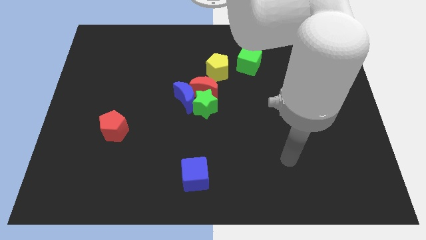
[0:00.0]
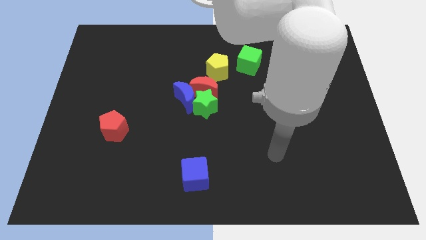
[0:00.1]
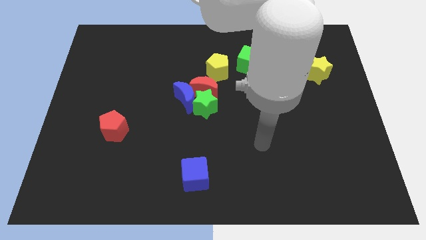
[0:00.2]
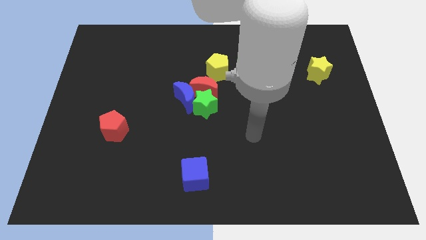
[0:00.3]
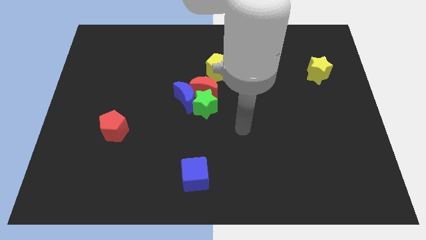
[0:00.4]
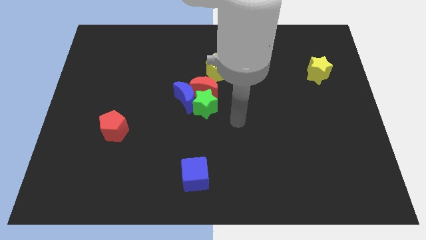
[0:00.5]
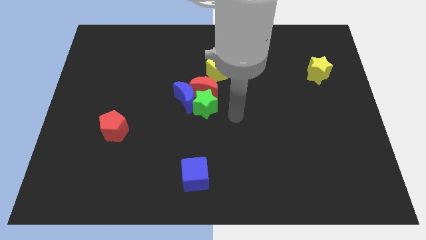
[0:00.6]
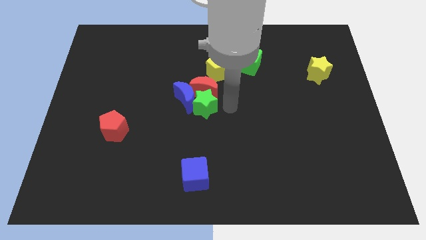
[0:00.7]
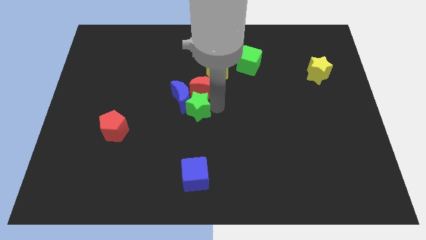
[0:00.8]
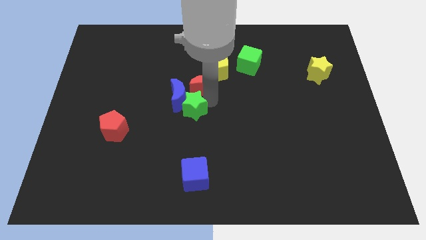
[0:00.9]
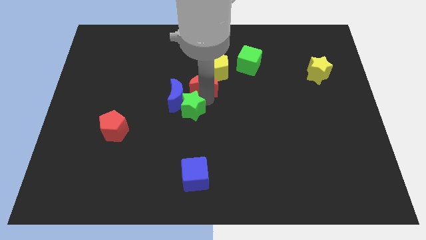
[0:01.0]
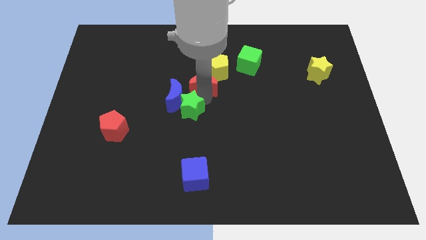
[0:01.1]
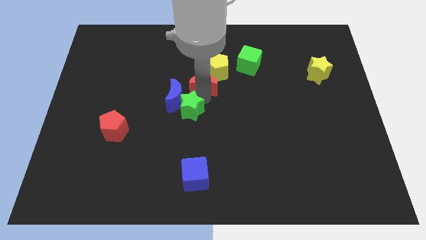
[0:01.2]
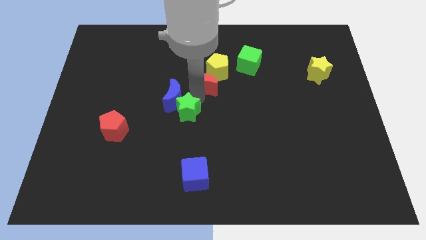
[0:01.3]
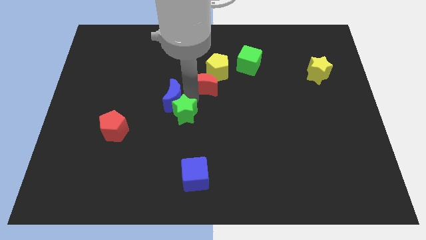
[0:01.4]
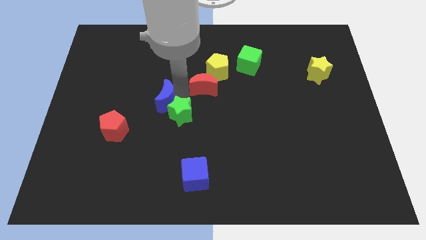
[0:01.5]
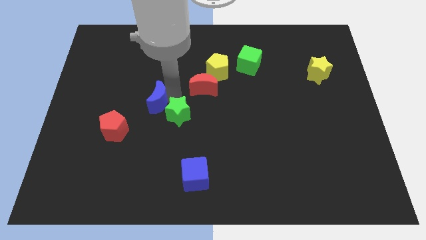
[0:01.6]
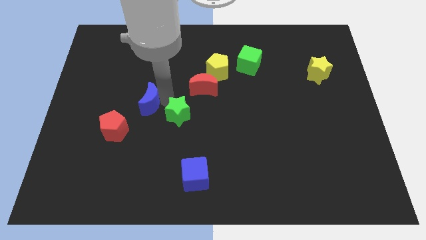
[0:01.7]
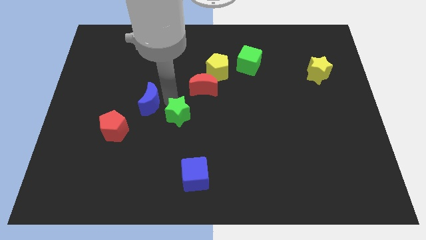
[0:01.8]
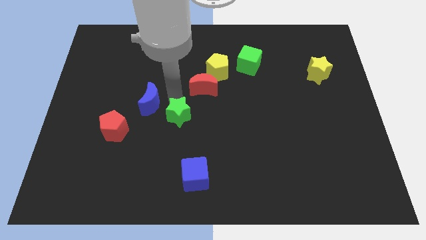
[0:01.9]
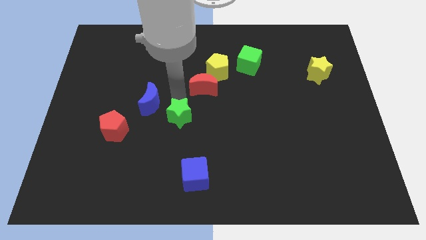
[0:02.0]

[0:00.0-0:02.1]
move the blue moon away from the red moon and green star

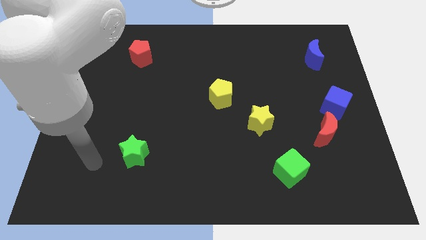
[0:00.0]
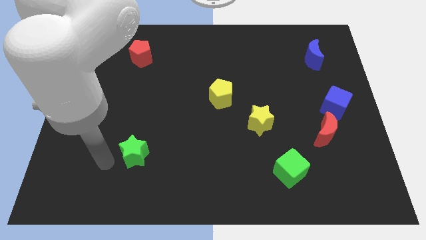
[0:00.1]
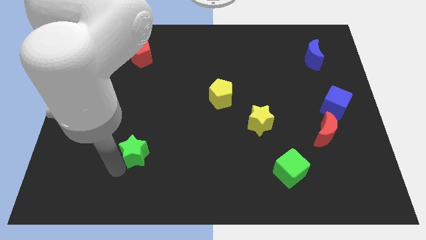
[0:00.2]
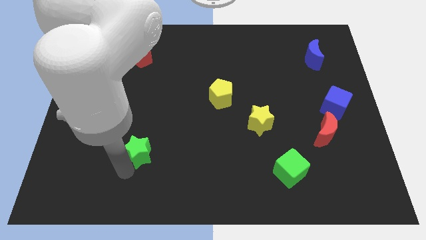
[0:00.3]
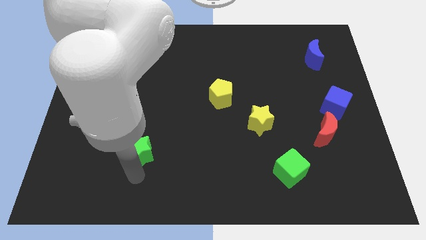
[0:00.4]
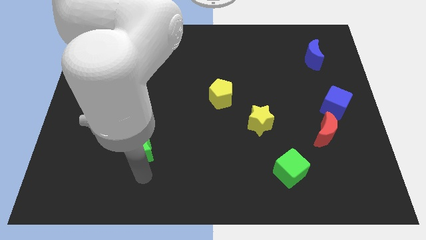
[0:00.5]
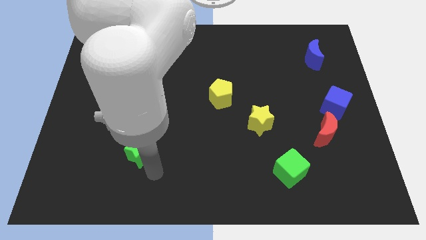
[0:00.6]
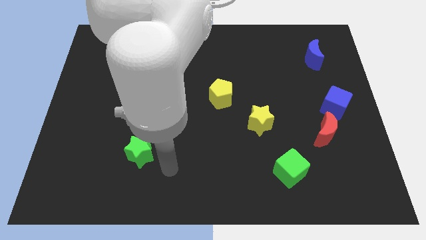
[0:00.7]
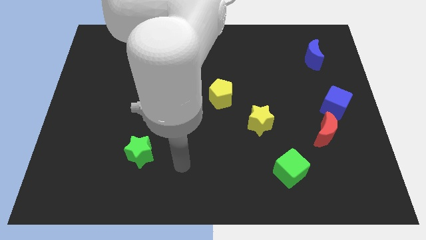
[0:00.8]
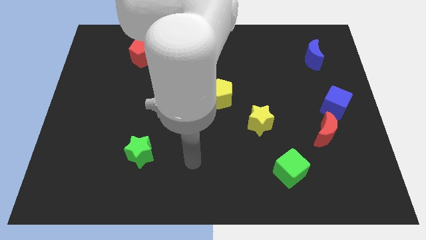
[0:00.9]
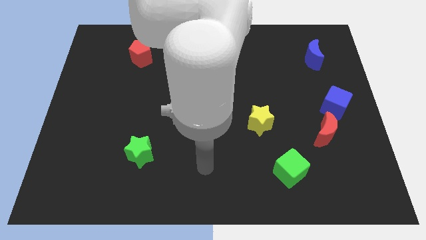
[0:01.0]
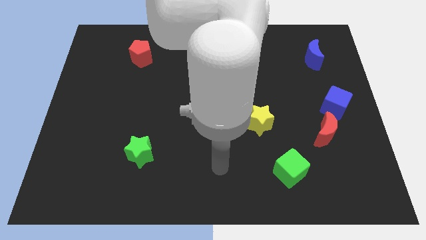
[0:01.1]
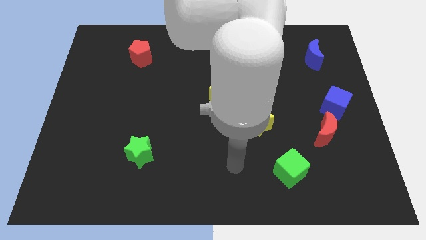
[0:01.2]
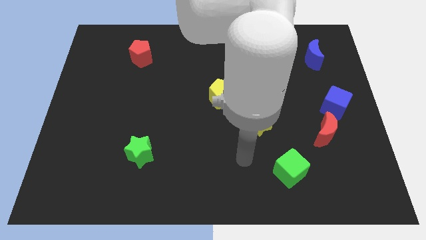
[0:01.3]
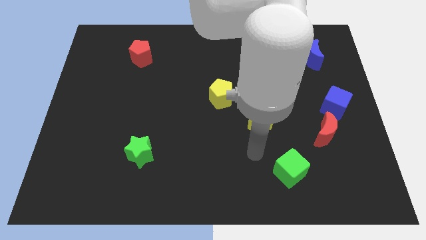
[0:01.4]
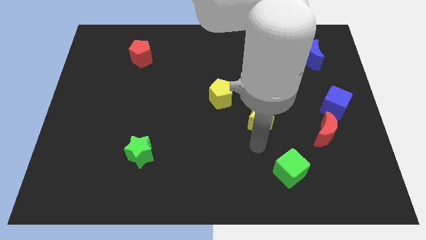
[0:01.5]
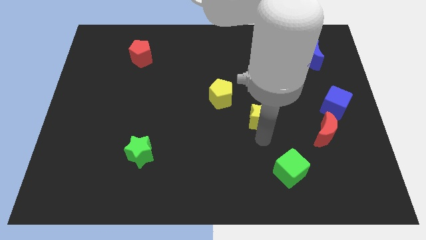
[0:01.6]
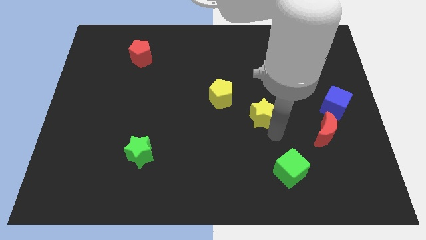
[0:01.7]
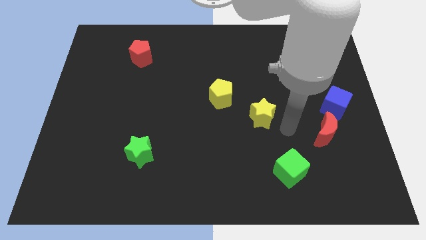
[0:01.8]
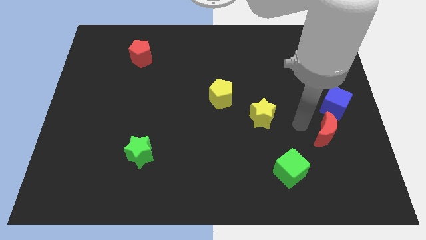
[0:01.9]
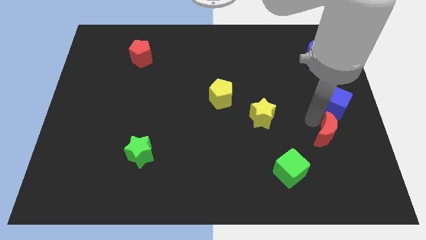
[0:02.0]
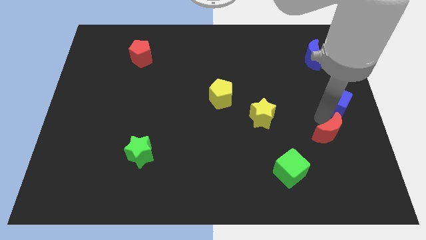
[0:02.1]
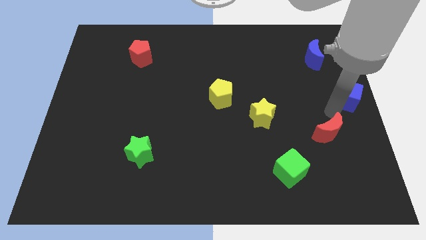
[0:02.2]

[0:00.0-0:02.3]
separate the red moon from the blue cube

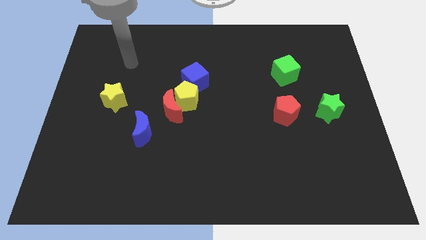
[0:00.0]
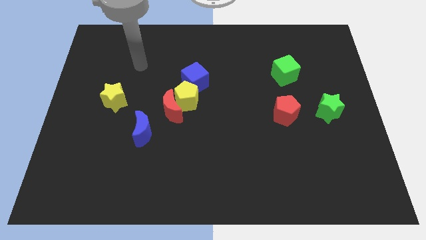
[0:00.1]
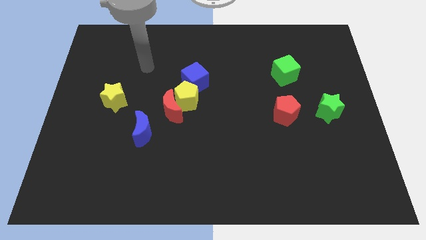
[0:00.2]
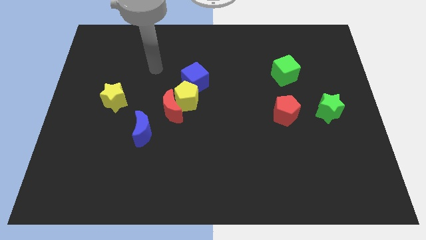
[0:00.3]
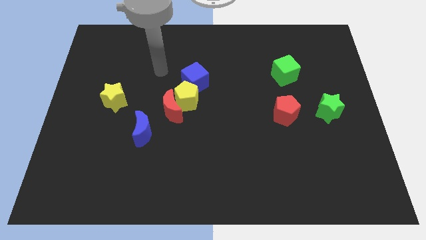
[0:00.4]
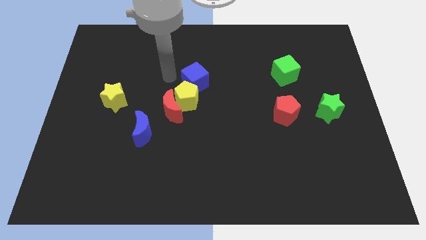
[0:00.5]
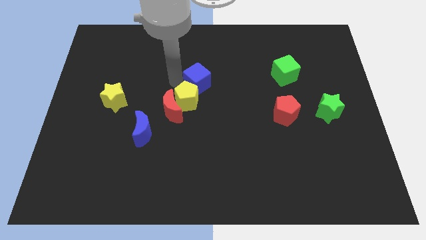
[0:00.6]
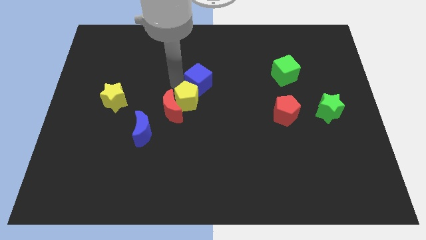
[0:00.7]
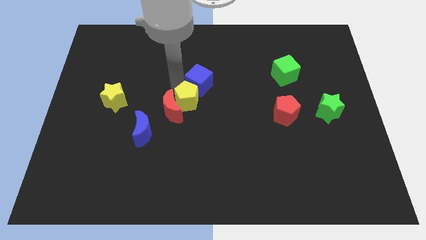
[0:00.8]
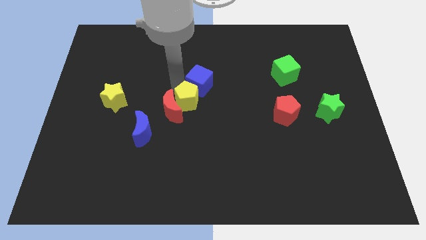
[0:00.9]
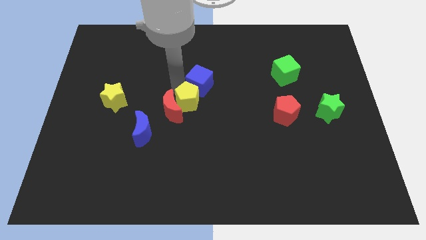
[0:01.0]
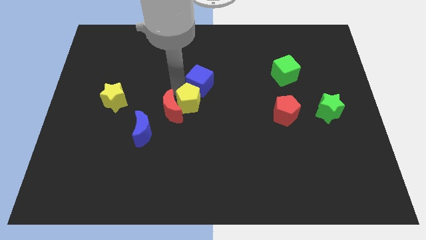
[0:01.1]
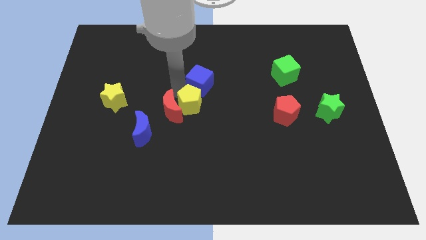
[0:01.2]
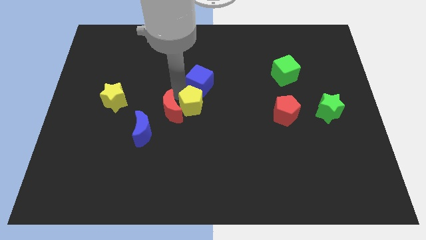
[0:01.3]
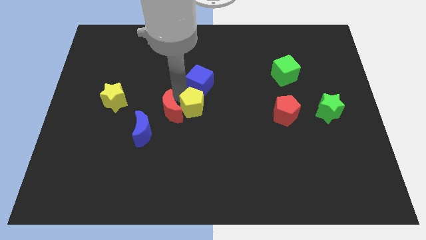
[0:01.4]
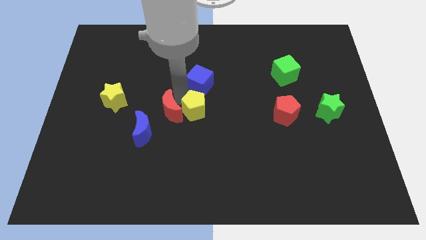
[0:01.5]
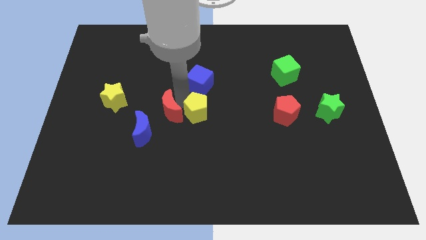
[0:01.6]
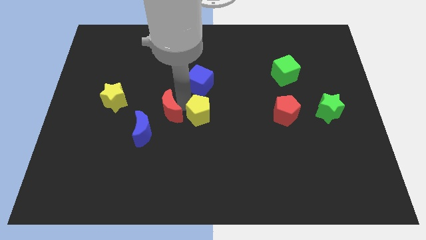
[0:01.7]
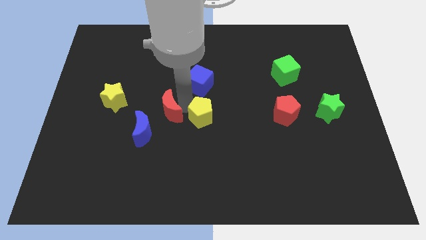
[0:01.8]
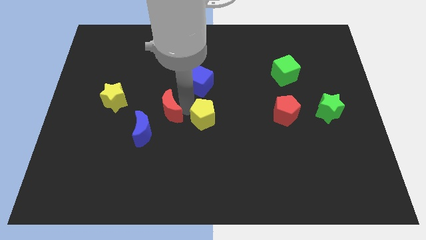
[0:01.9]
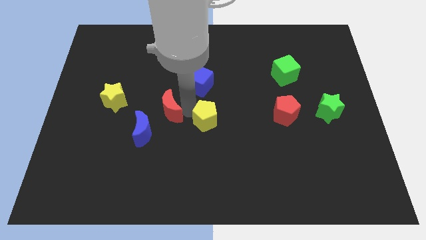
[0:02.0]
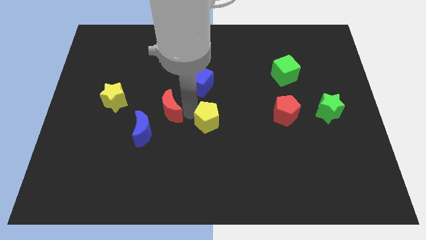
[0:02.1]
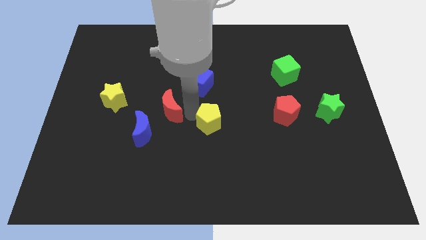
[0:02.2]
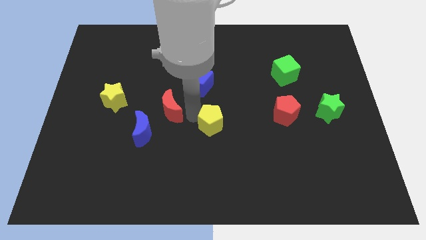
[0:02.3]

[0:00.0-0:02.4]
pull the yellow pentagon apart from the red moon and blue cube

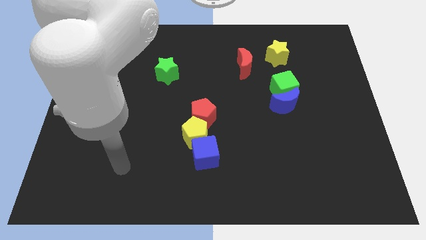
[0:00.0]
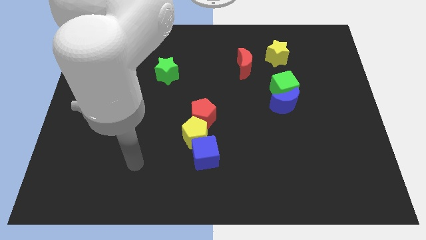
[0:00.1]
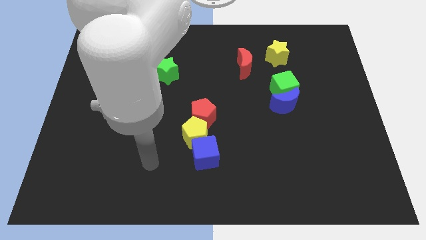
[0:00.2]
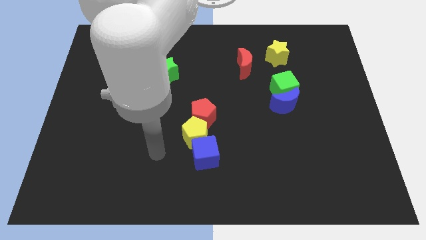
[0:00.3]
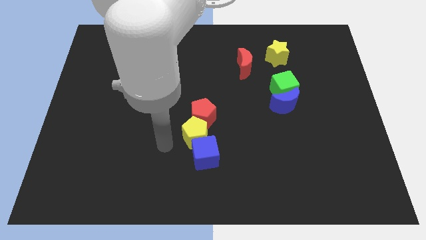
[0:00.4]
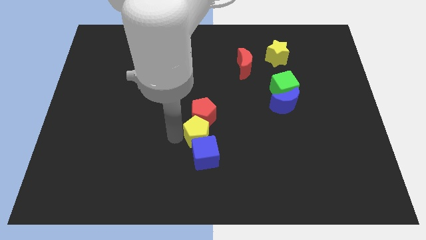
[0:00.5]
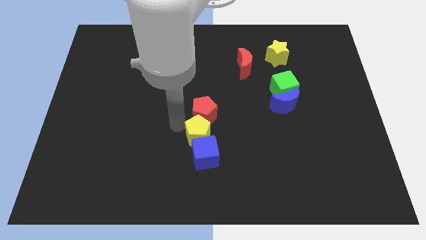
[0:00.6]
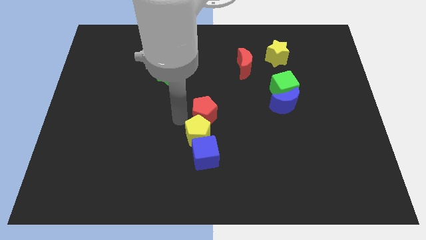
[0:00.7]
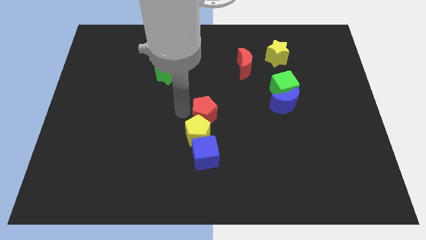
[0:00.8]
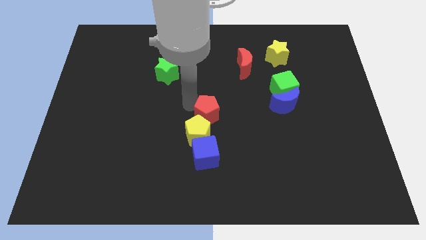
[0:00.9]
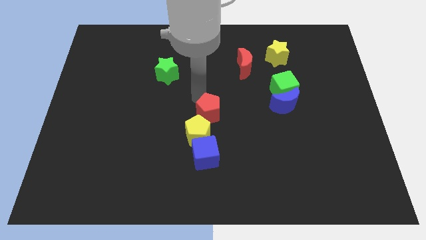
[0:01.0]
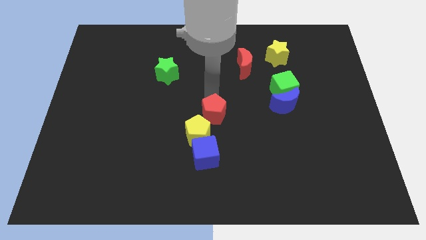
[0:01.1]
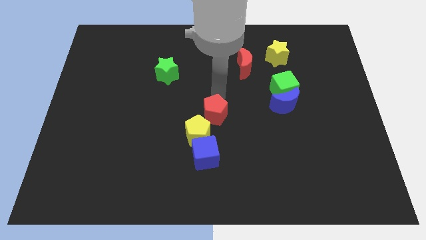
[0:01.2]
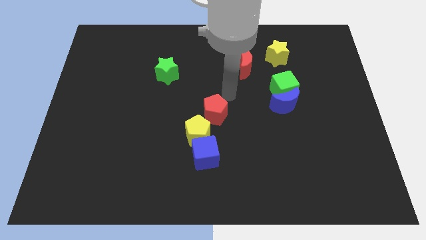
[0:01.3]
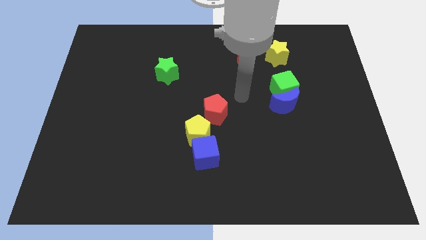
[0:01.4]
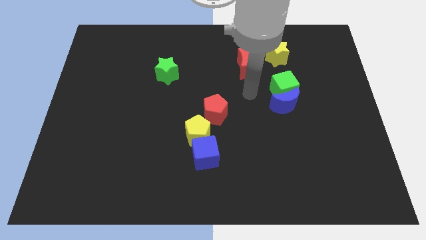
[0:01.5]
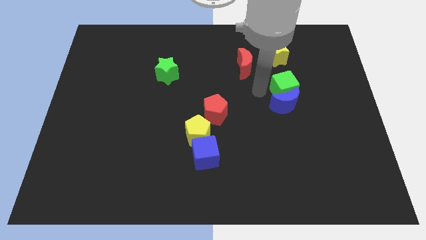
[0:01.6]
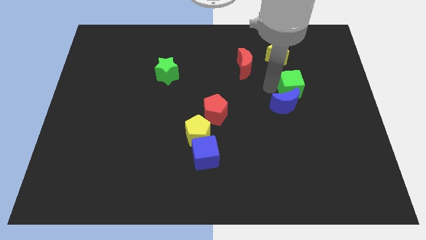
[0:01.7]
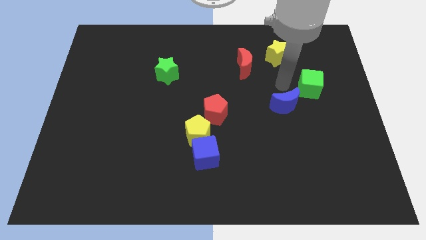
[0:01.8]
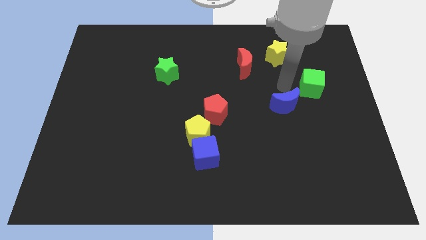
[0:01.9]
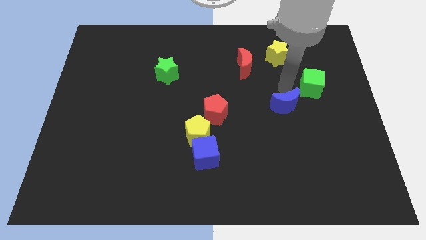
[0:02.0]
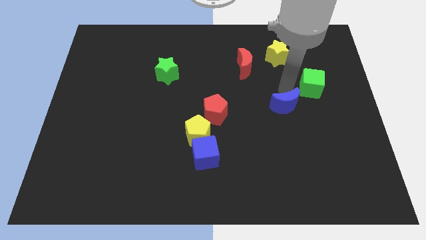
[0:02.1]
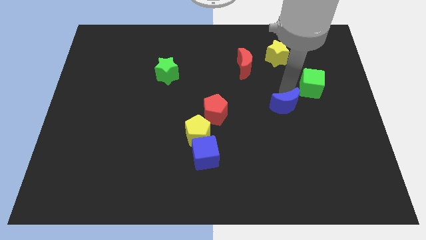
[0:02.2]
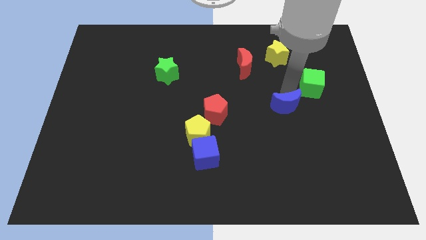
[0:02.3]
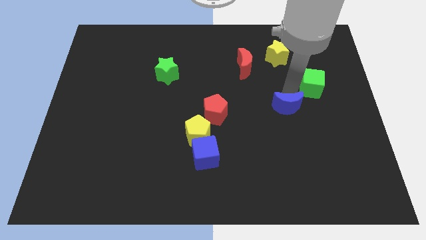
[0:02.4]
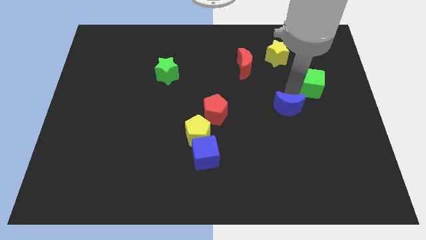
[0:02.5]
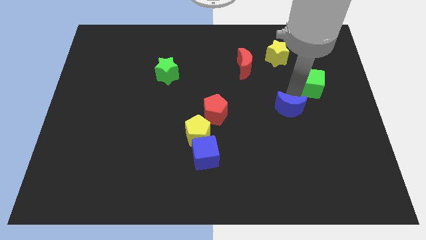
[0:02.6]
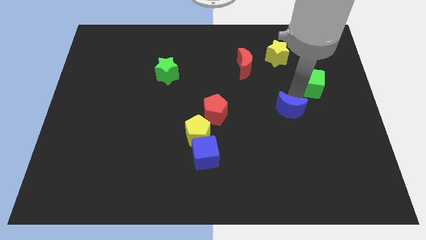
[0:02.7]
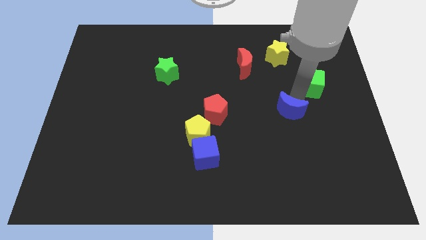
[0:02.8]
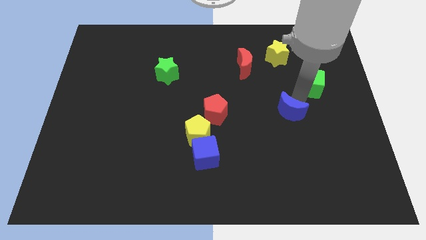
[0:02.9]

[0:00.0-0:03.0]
separate the blue moon from the green cube
